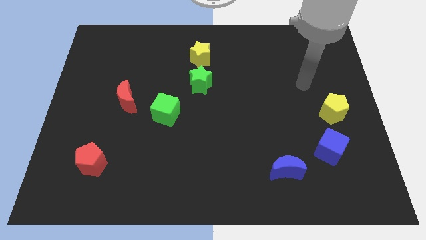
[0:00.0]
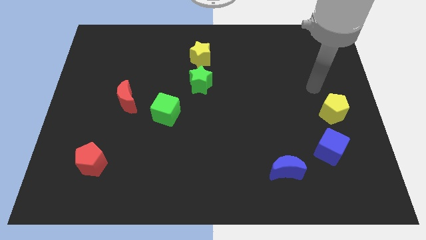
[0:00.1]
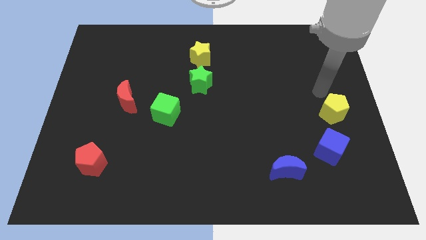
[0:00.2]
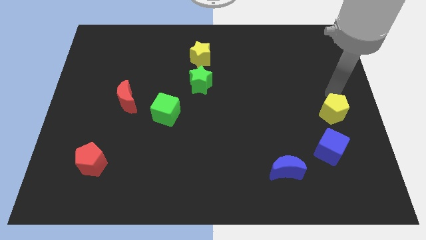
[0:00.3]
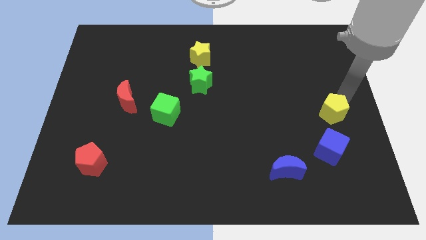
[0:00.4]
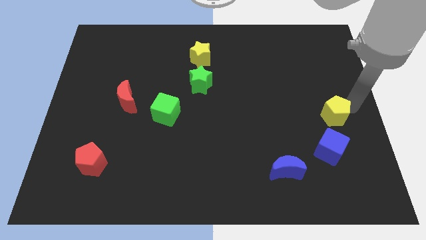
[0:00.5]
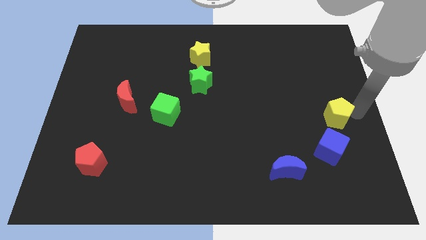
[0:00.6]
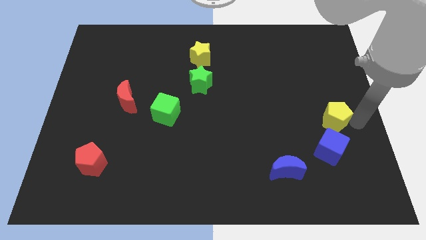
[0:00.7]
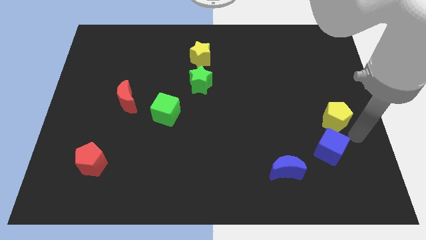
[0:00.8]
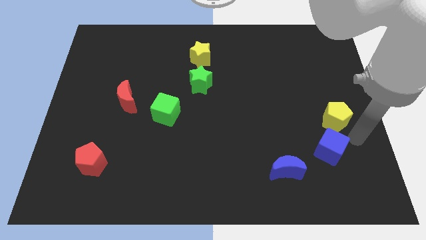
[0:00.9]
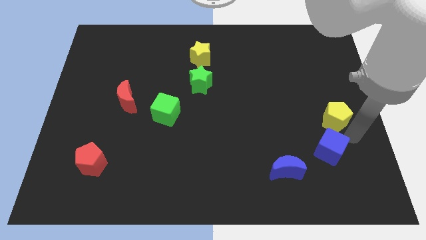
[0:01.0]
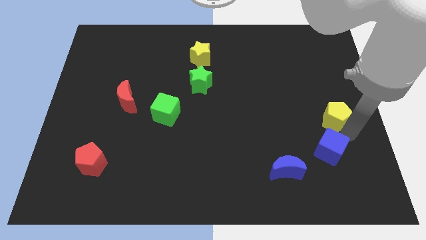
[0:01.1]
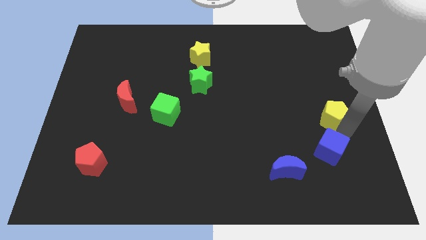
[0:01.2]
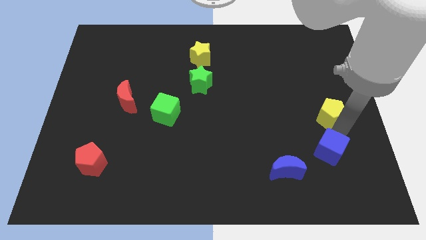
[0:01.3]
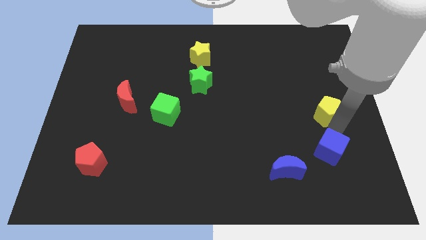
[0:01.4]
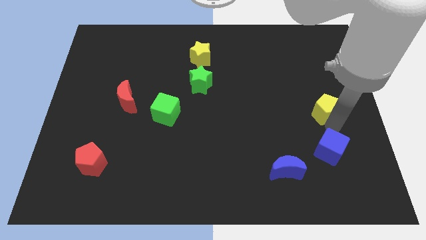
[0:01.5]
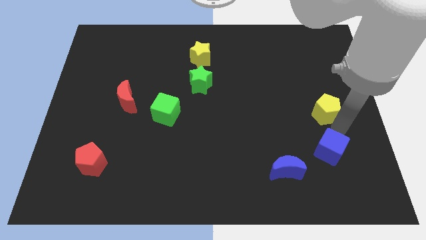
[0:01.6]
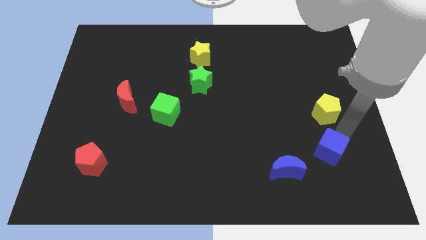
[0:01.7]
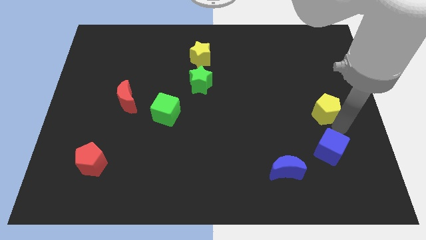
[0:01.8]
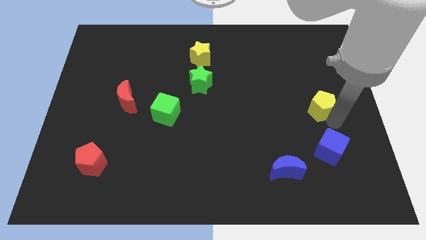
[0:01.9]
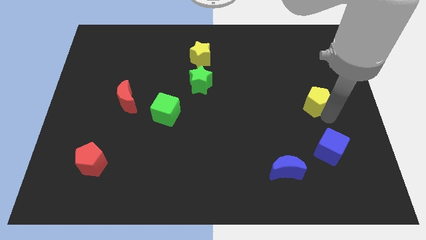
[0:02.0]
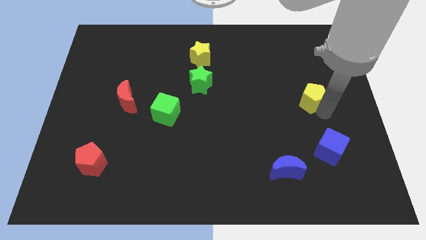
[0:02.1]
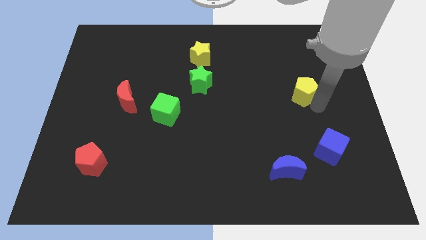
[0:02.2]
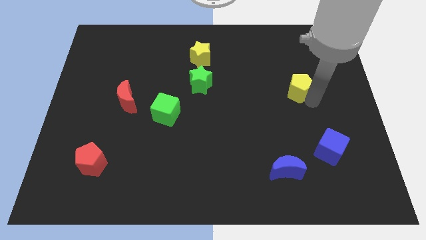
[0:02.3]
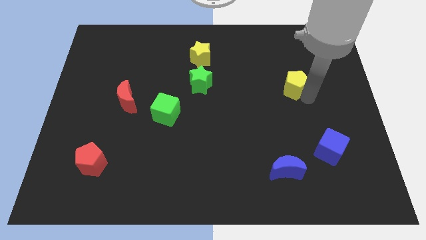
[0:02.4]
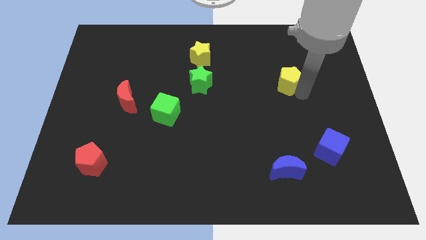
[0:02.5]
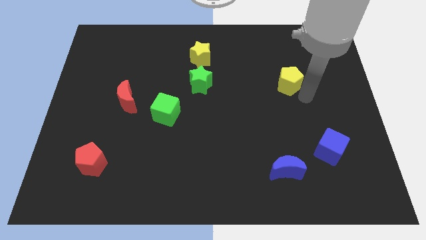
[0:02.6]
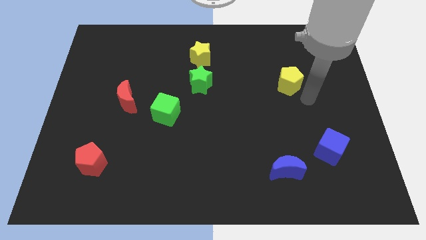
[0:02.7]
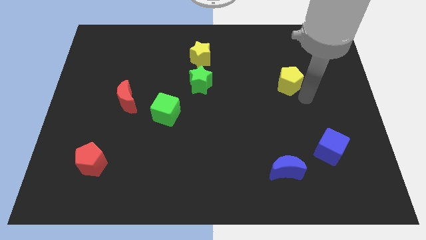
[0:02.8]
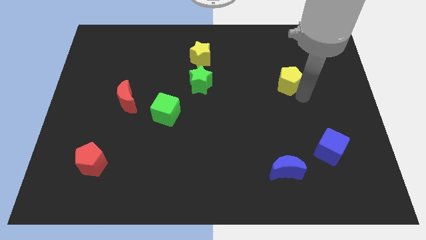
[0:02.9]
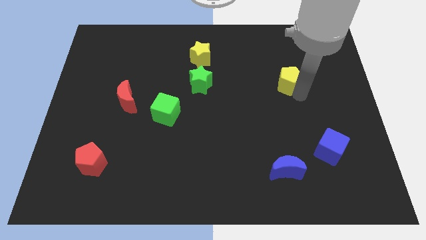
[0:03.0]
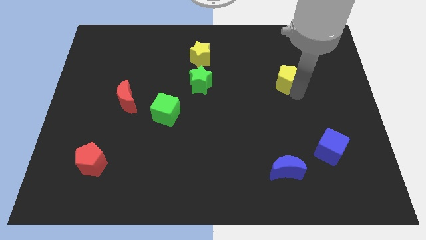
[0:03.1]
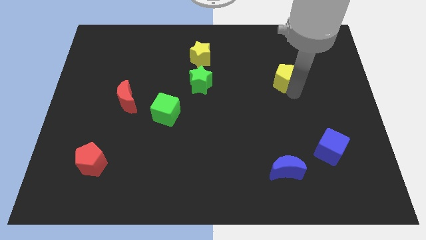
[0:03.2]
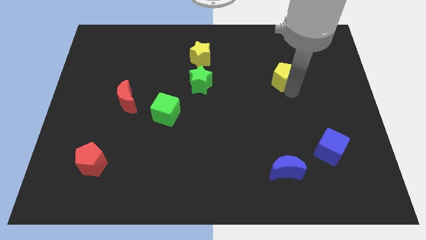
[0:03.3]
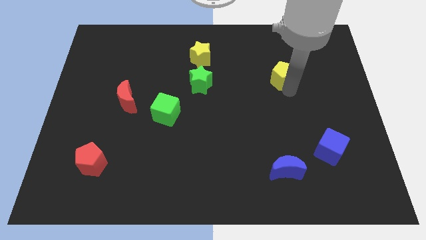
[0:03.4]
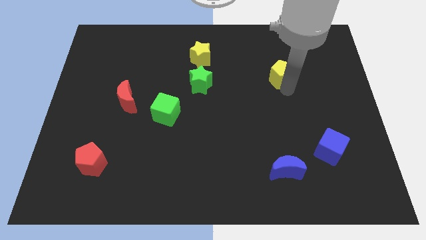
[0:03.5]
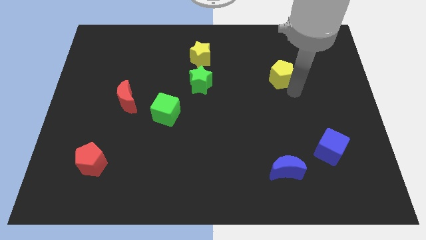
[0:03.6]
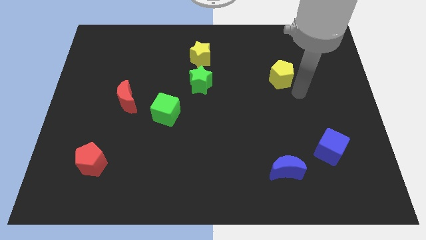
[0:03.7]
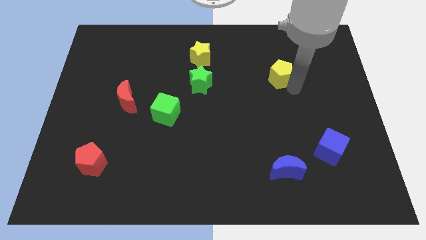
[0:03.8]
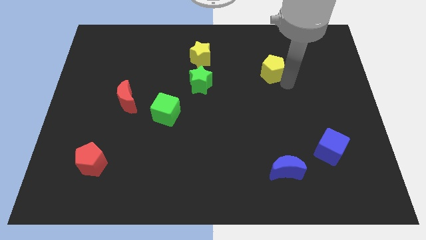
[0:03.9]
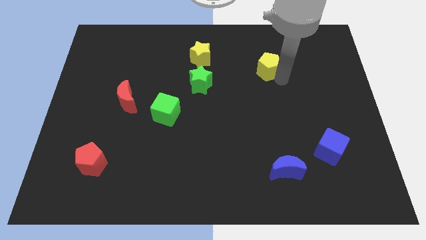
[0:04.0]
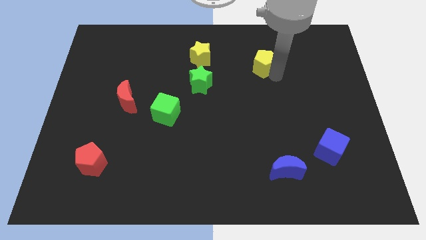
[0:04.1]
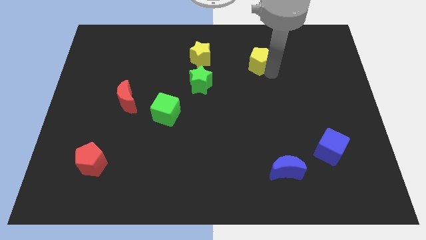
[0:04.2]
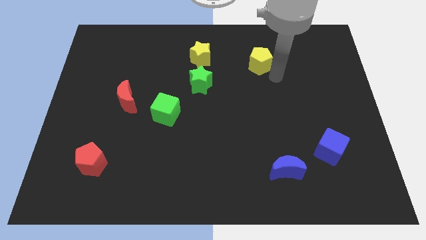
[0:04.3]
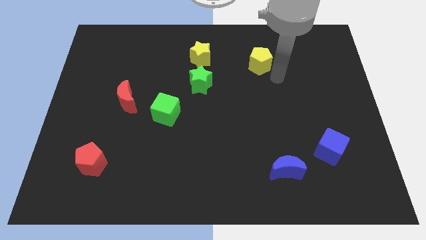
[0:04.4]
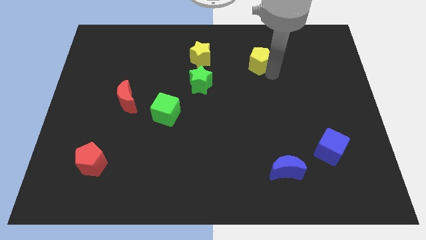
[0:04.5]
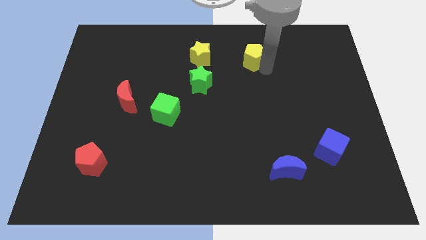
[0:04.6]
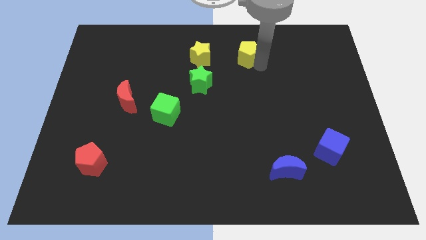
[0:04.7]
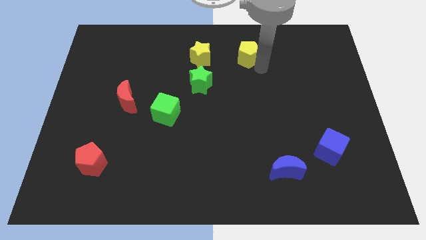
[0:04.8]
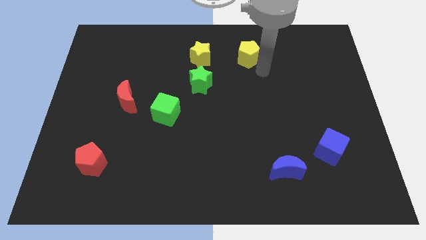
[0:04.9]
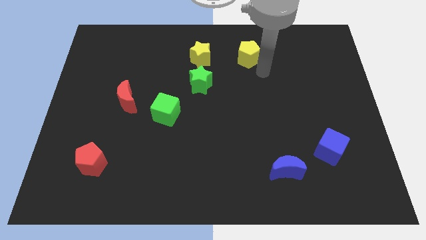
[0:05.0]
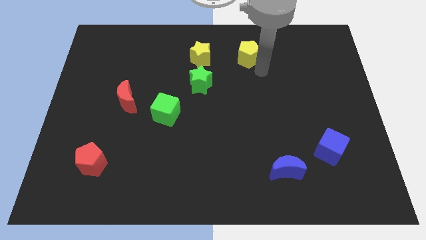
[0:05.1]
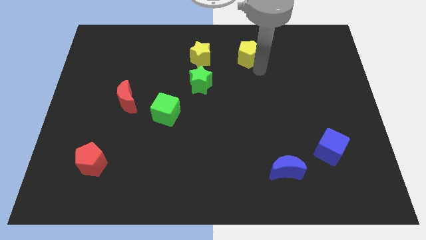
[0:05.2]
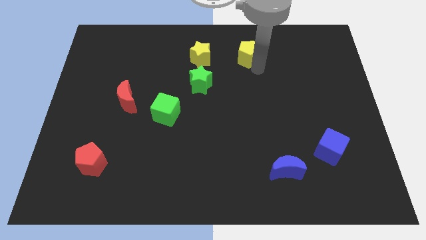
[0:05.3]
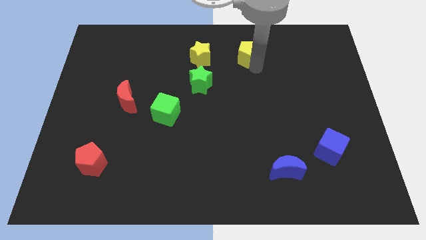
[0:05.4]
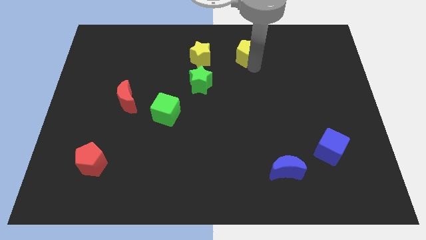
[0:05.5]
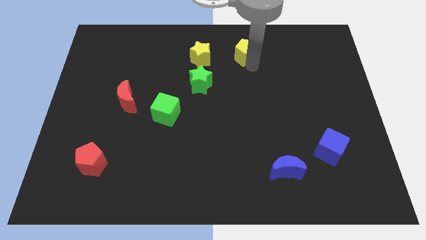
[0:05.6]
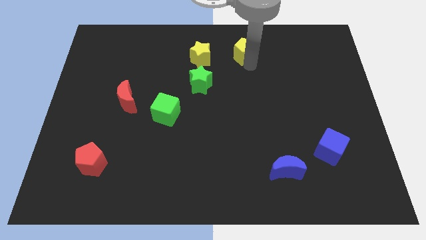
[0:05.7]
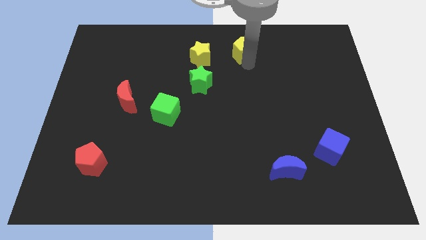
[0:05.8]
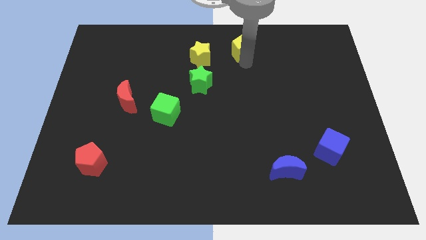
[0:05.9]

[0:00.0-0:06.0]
move the yellow pentagon to the top side

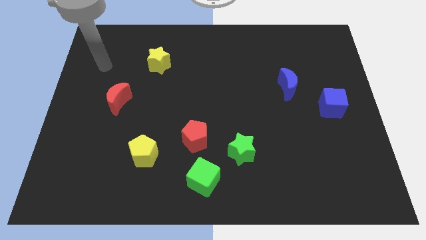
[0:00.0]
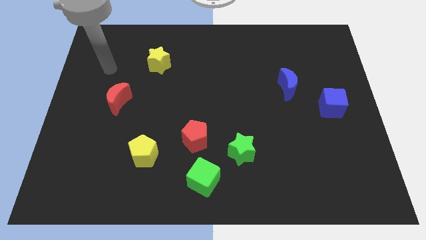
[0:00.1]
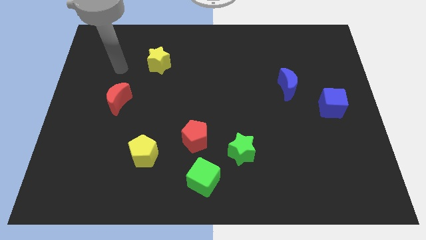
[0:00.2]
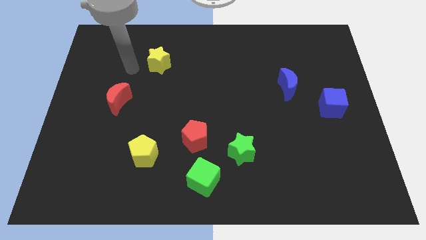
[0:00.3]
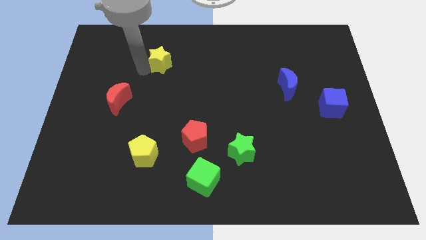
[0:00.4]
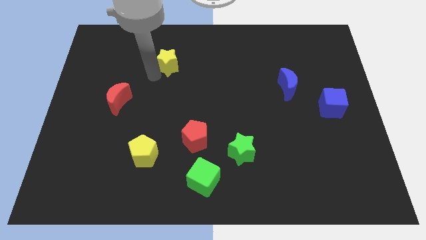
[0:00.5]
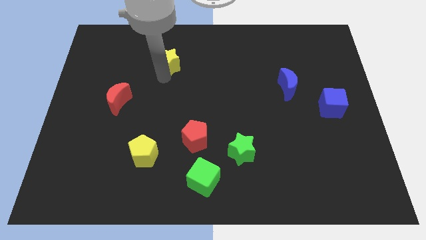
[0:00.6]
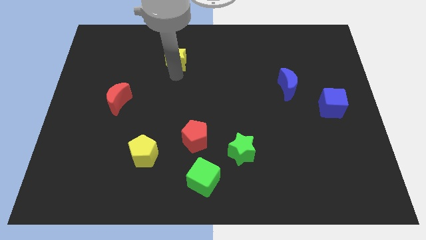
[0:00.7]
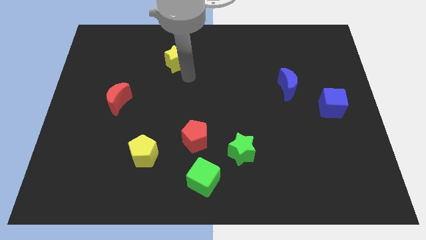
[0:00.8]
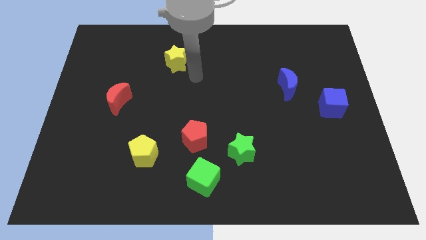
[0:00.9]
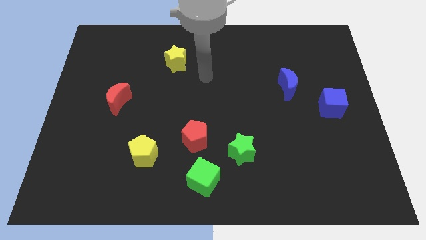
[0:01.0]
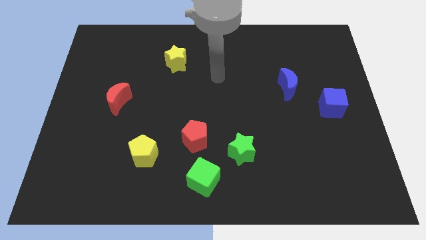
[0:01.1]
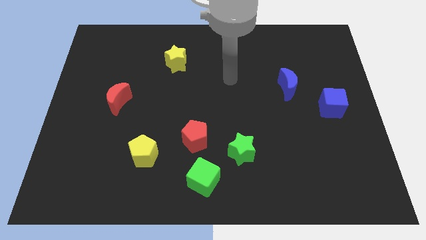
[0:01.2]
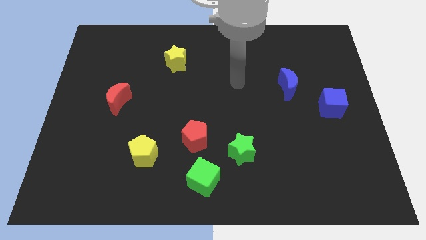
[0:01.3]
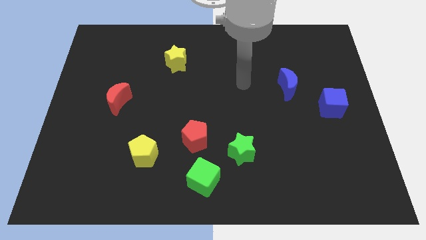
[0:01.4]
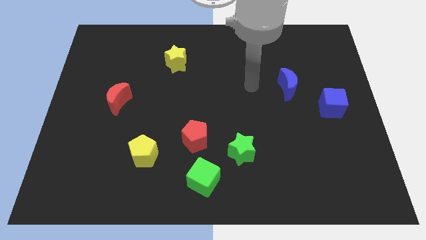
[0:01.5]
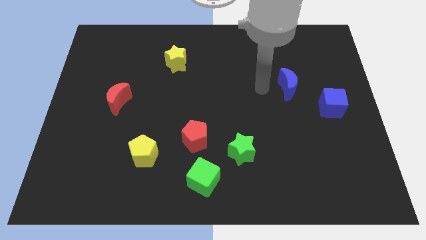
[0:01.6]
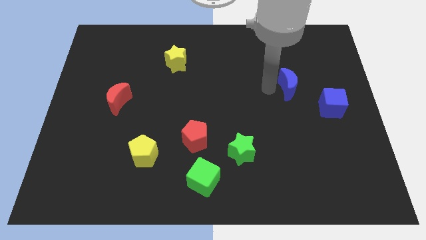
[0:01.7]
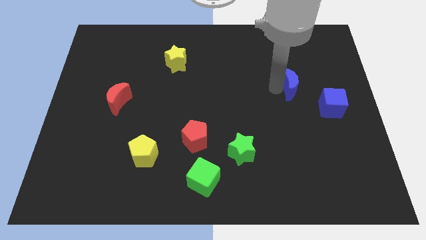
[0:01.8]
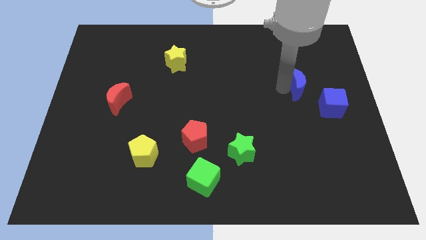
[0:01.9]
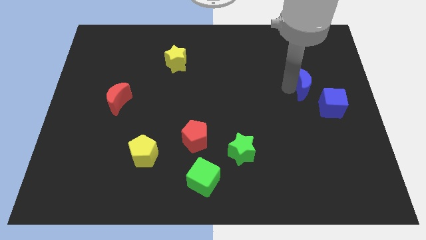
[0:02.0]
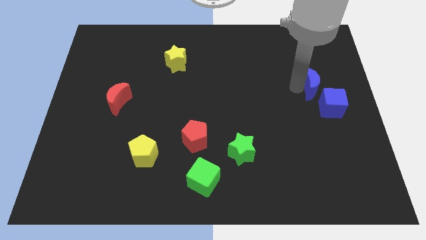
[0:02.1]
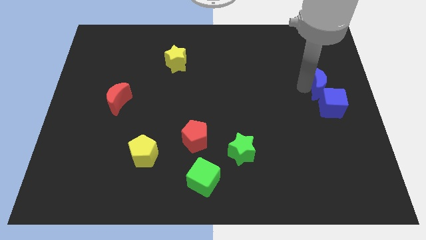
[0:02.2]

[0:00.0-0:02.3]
put the blue moon to the right side
